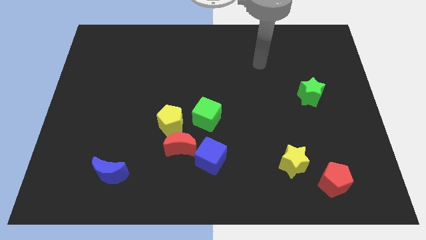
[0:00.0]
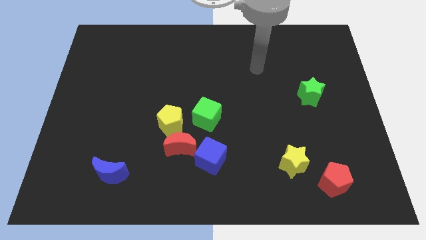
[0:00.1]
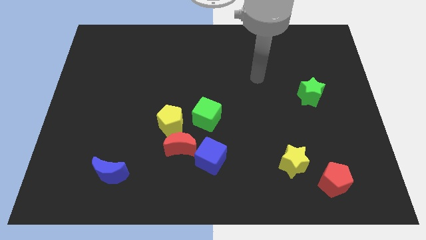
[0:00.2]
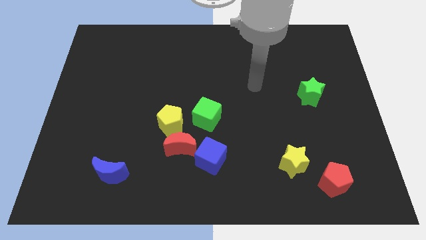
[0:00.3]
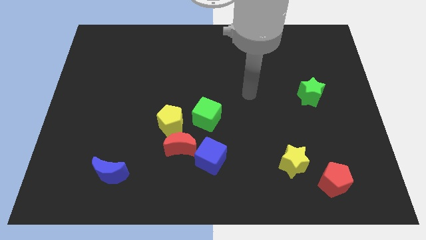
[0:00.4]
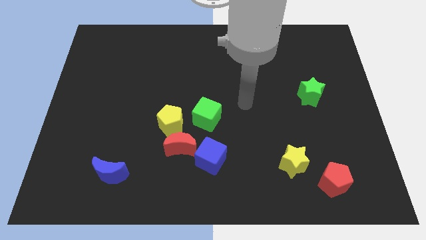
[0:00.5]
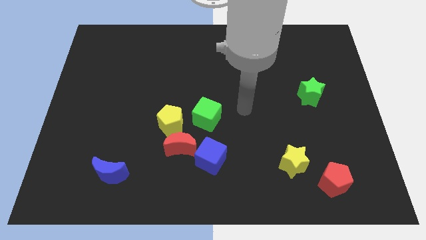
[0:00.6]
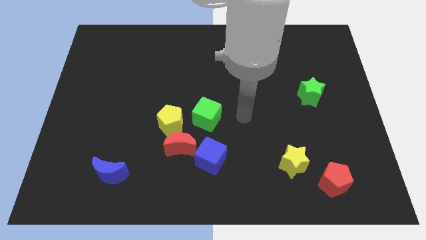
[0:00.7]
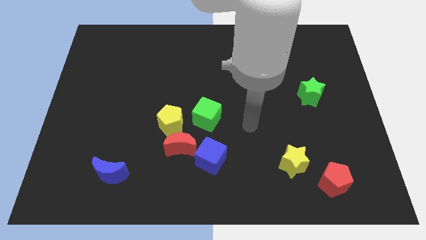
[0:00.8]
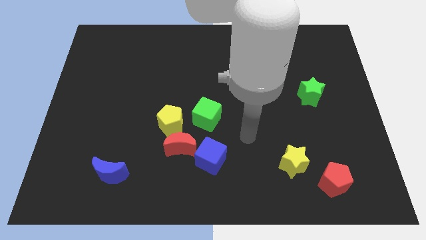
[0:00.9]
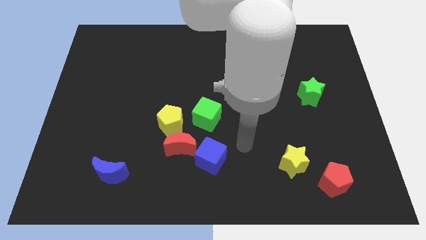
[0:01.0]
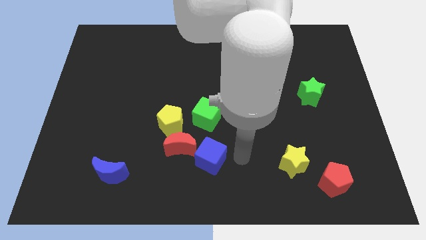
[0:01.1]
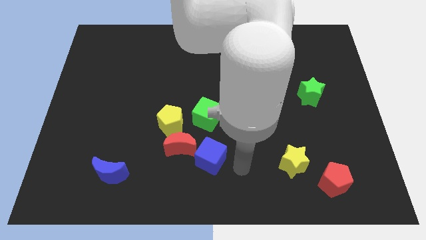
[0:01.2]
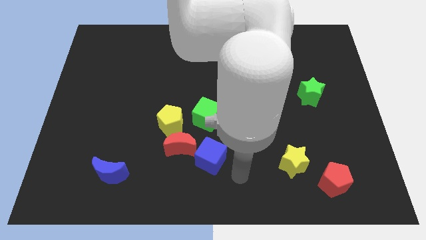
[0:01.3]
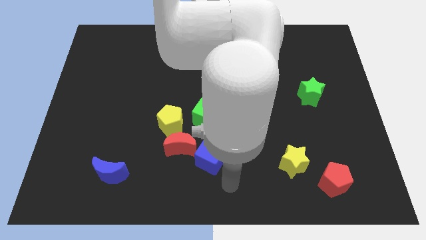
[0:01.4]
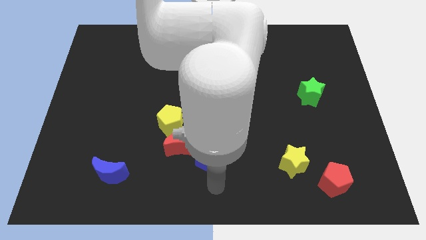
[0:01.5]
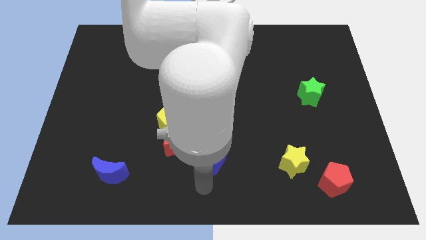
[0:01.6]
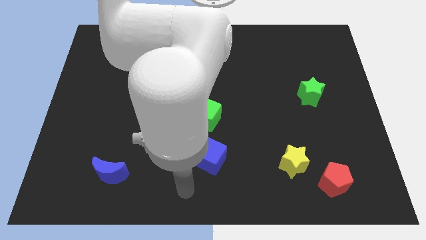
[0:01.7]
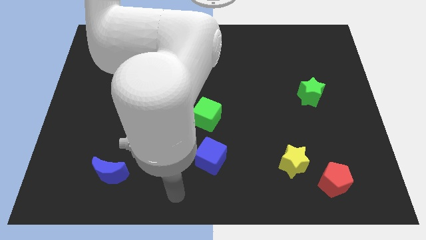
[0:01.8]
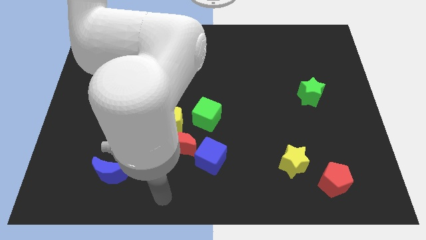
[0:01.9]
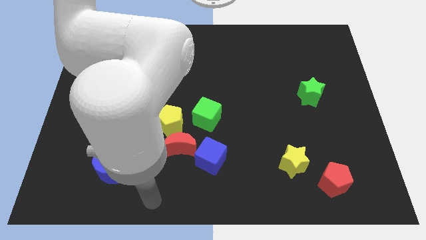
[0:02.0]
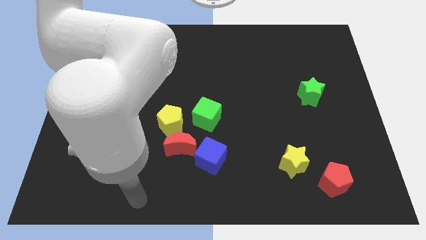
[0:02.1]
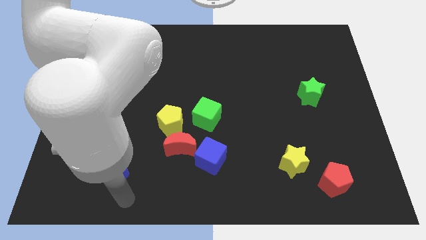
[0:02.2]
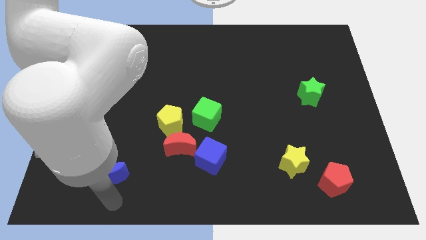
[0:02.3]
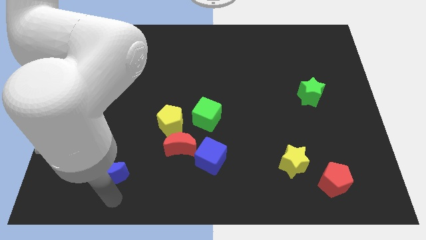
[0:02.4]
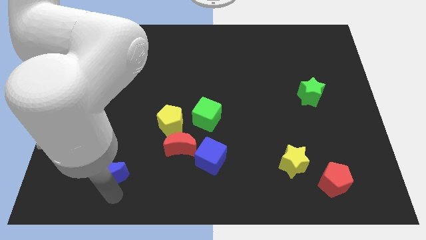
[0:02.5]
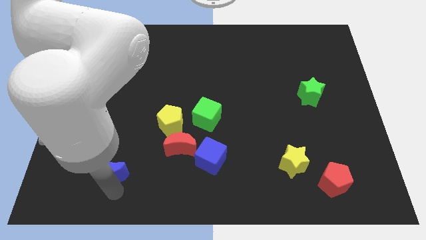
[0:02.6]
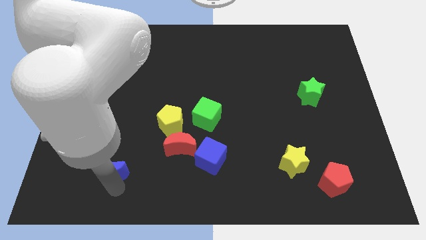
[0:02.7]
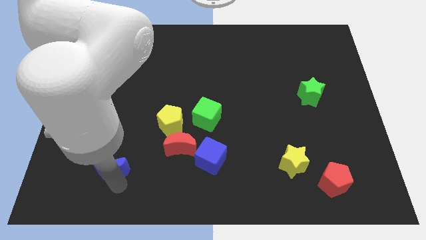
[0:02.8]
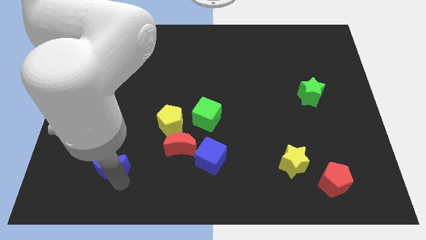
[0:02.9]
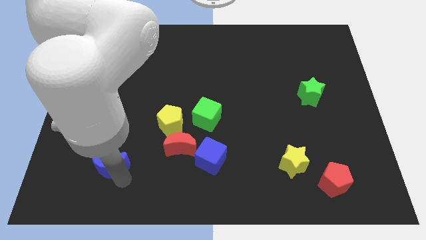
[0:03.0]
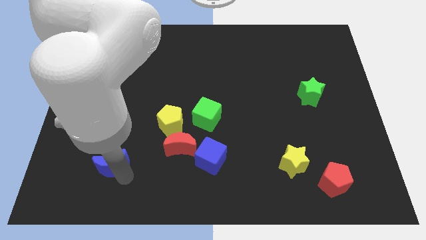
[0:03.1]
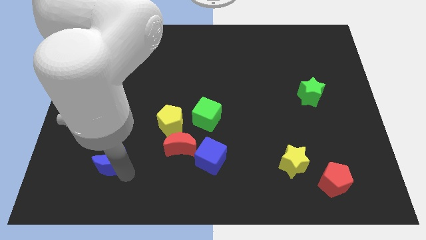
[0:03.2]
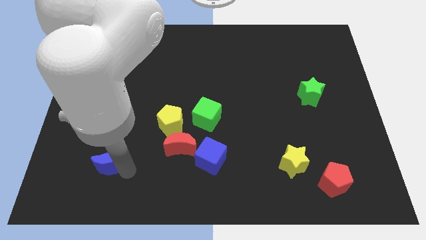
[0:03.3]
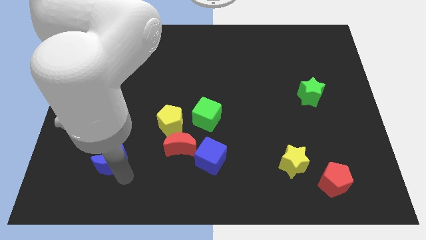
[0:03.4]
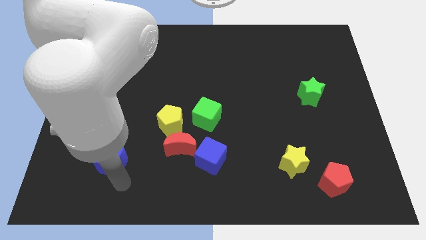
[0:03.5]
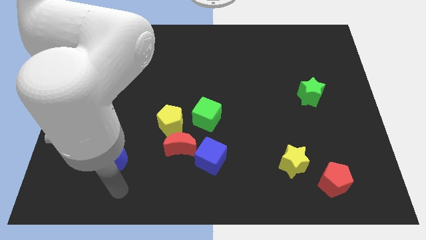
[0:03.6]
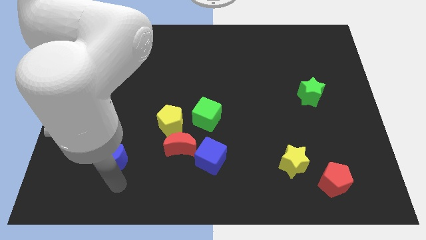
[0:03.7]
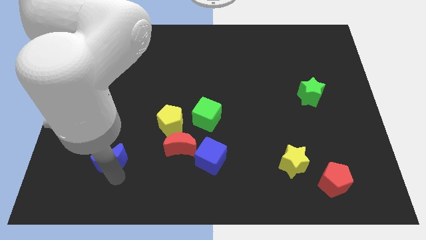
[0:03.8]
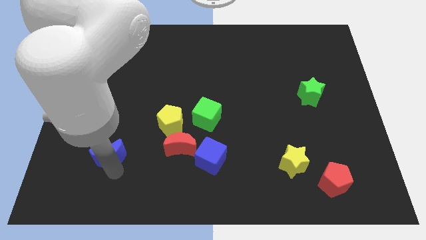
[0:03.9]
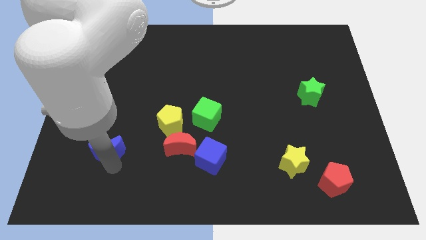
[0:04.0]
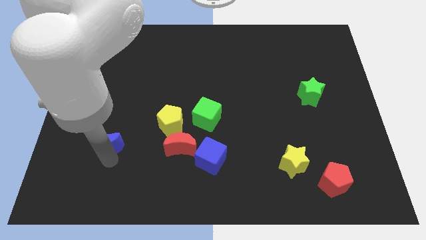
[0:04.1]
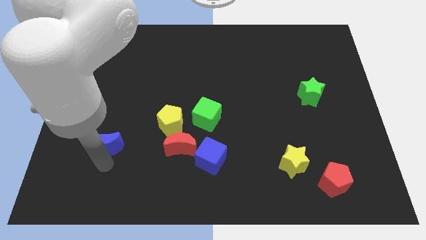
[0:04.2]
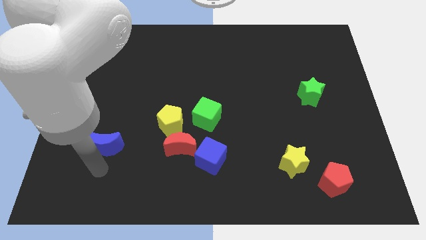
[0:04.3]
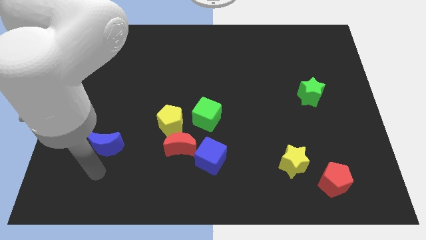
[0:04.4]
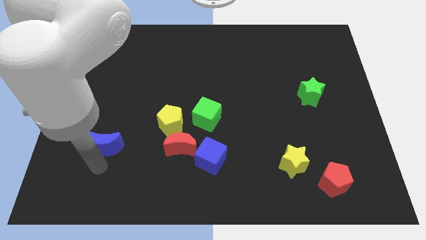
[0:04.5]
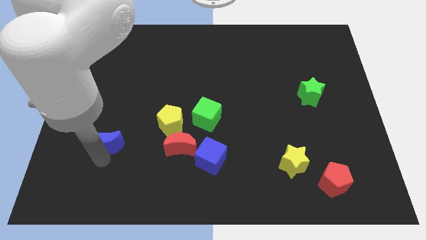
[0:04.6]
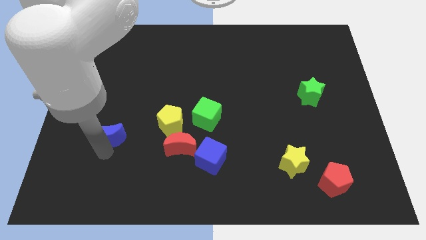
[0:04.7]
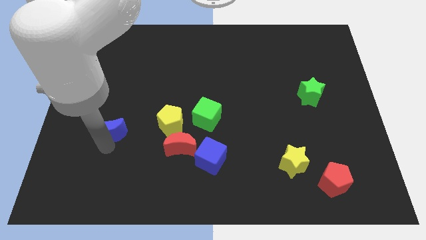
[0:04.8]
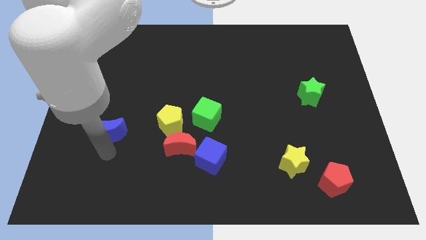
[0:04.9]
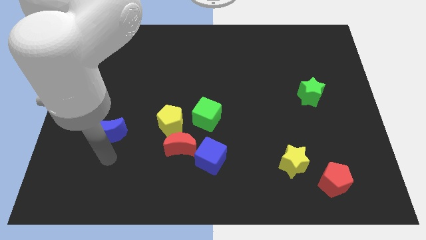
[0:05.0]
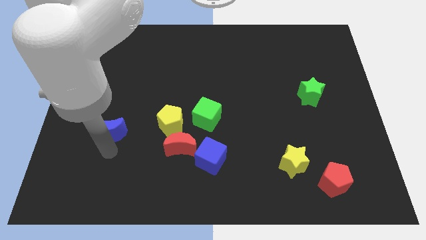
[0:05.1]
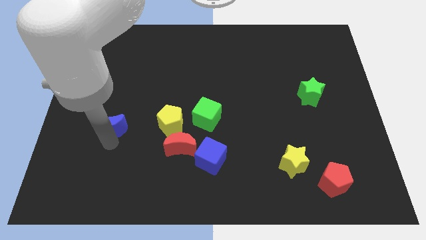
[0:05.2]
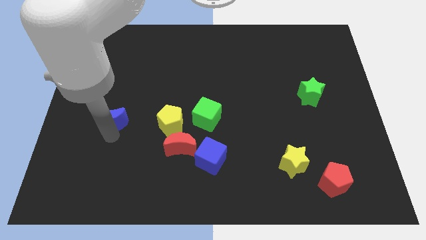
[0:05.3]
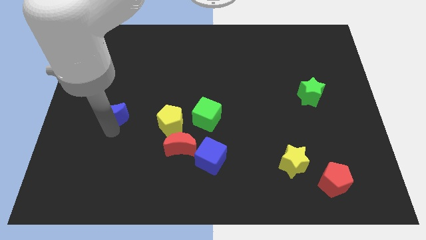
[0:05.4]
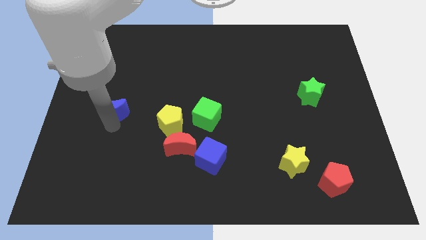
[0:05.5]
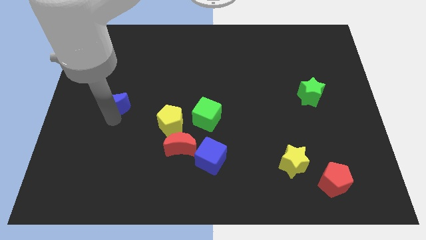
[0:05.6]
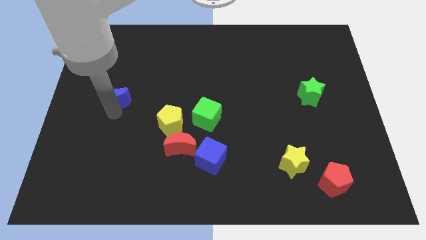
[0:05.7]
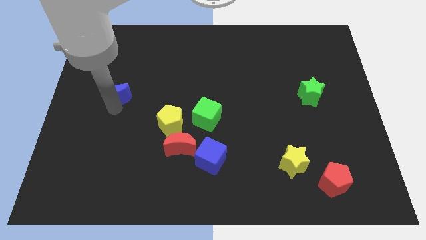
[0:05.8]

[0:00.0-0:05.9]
slide the blue moon up

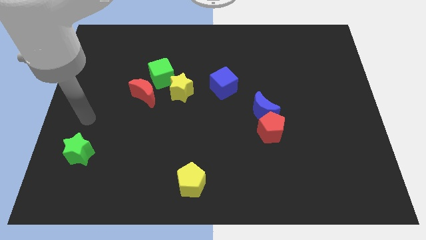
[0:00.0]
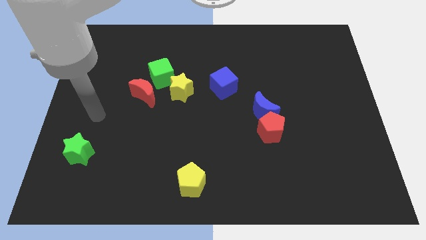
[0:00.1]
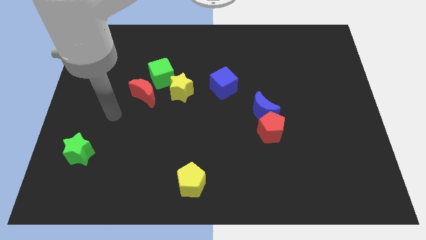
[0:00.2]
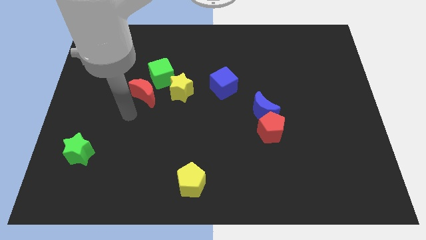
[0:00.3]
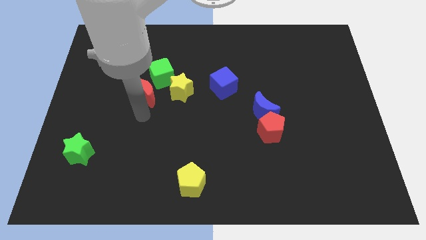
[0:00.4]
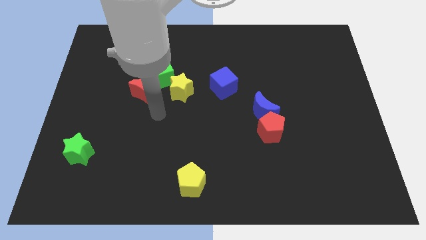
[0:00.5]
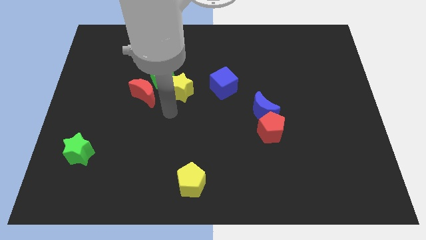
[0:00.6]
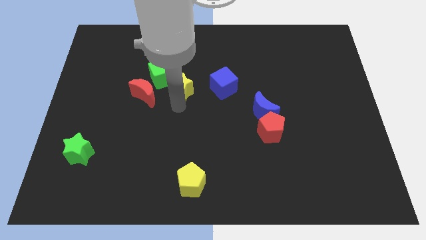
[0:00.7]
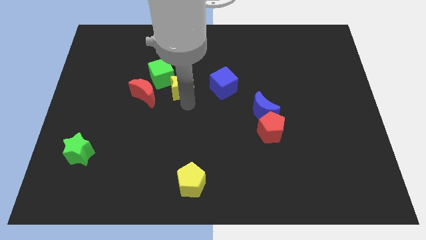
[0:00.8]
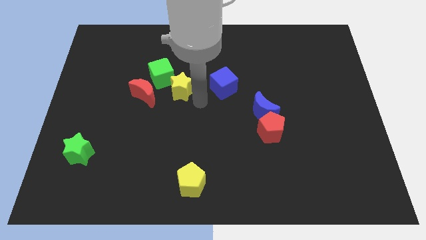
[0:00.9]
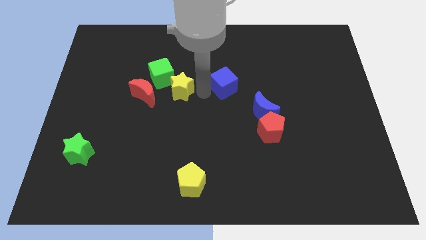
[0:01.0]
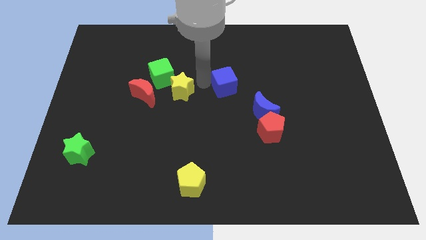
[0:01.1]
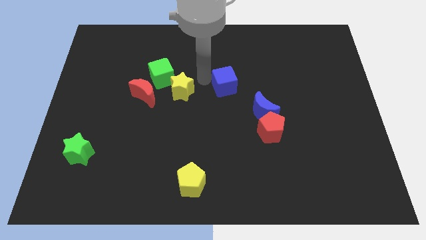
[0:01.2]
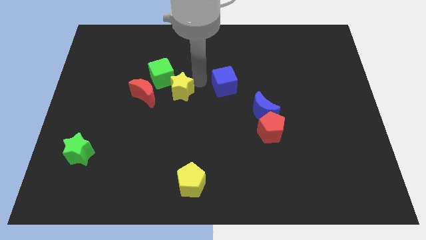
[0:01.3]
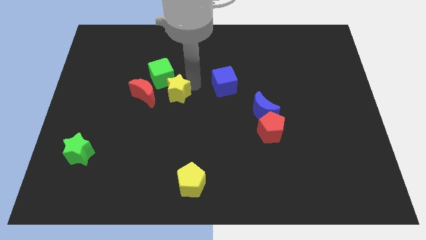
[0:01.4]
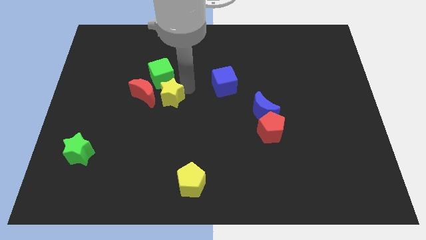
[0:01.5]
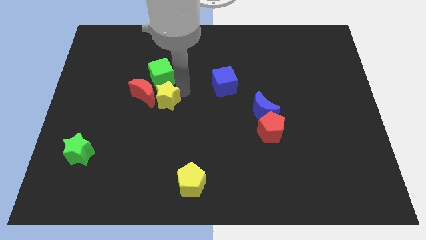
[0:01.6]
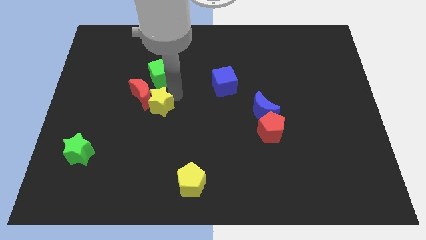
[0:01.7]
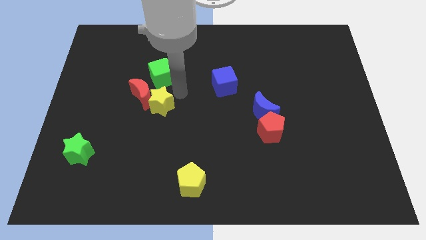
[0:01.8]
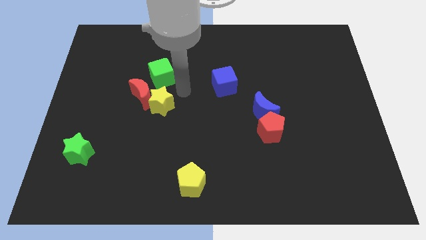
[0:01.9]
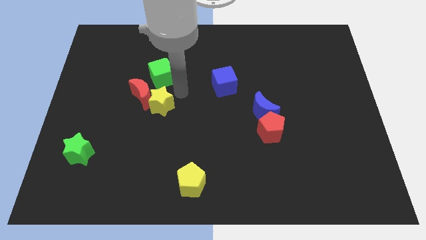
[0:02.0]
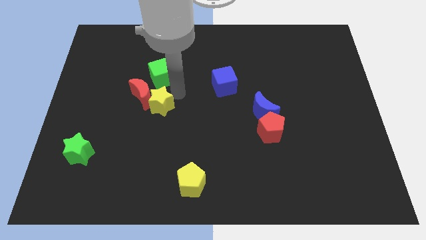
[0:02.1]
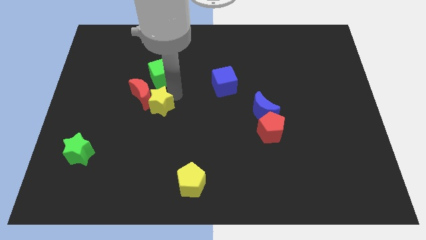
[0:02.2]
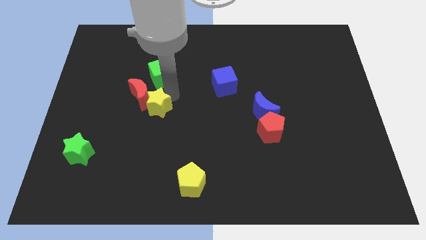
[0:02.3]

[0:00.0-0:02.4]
slightly move the yellow star down and left
